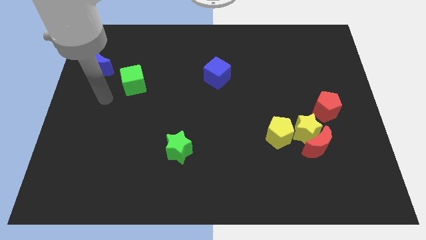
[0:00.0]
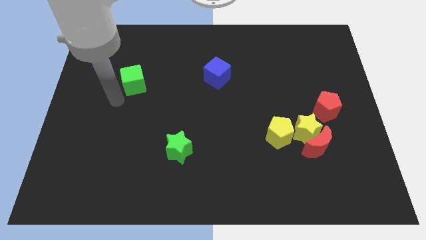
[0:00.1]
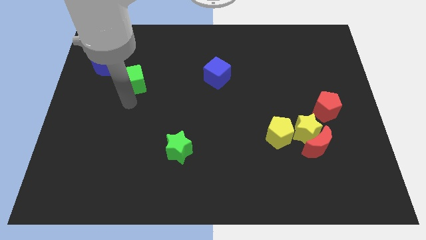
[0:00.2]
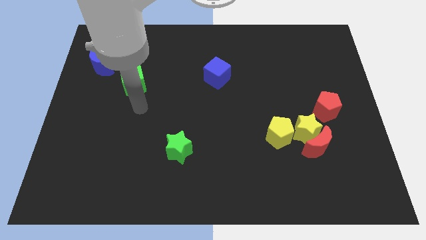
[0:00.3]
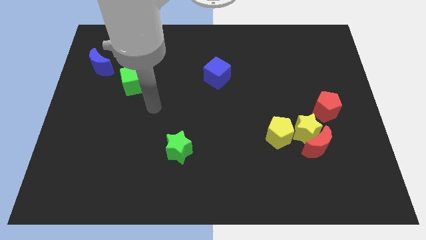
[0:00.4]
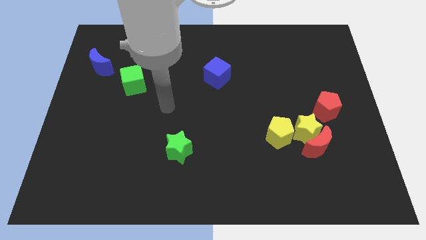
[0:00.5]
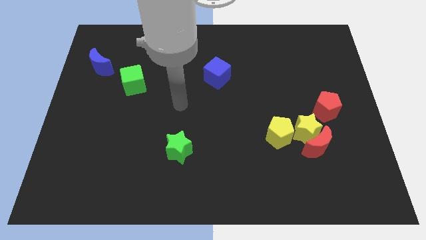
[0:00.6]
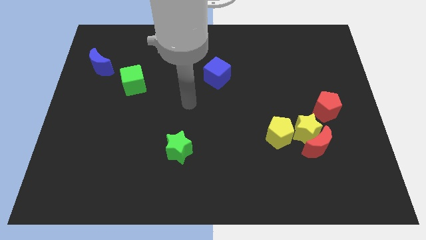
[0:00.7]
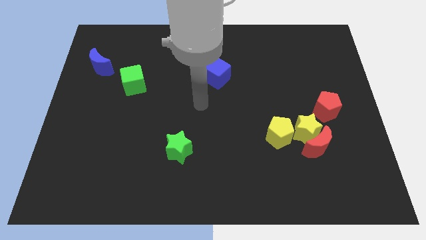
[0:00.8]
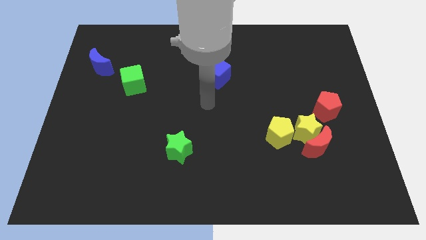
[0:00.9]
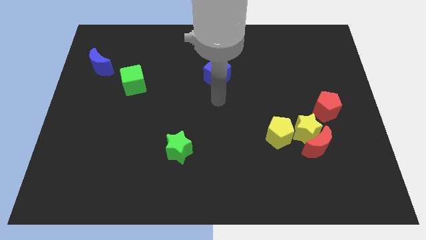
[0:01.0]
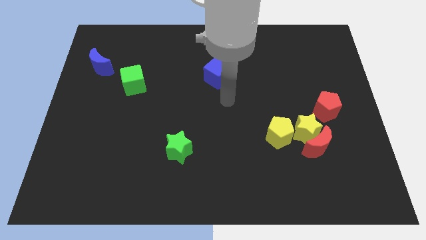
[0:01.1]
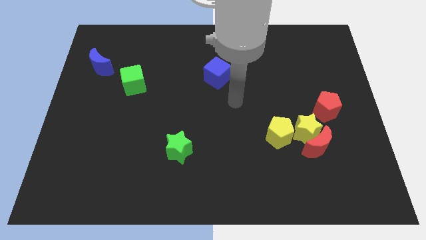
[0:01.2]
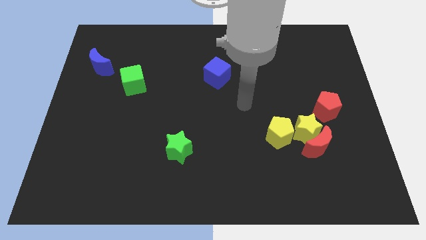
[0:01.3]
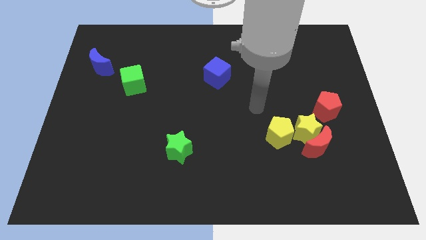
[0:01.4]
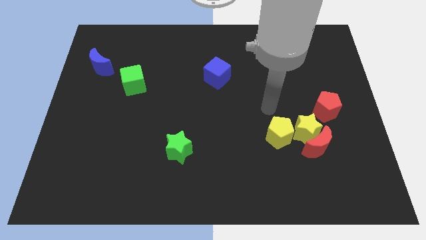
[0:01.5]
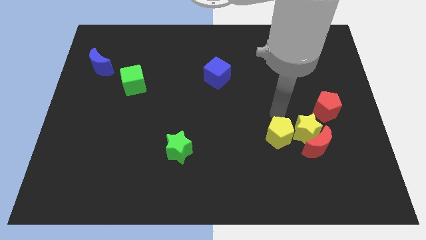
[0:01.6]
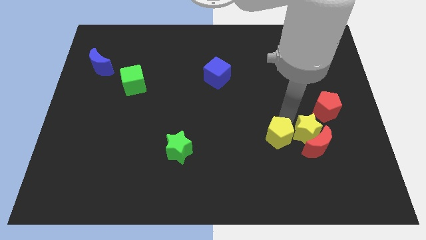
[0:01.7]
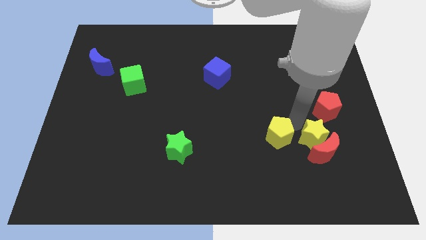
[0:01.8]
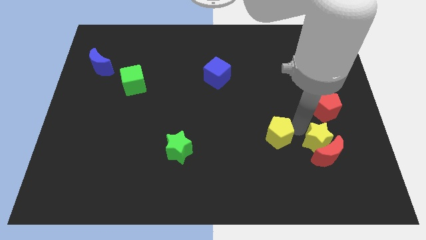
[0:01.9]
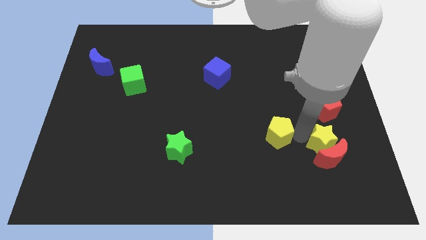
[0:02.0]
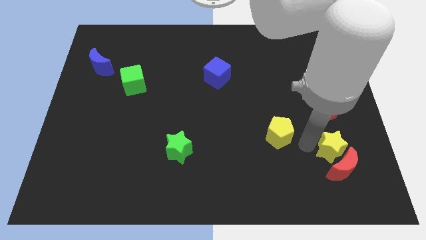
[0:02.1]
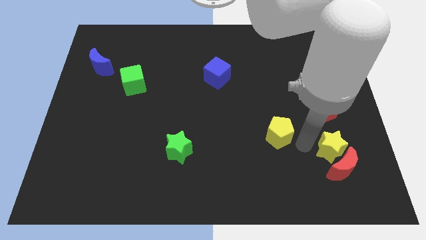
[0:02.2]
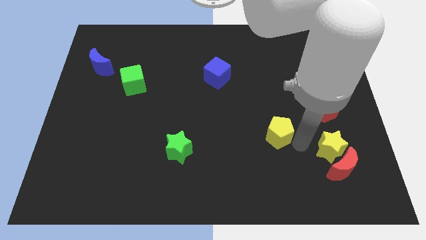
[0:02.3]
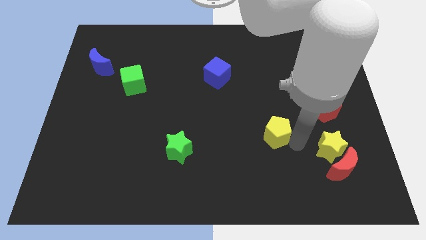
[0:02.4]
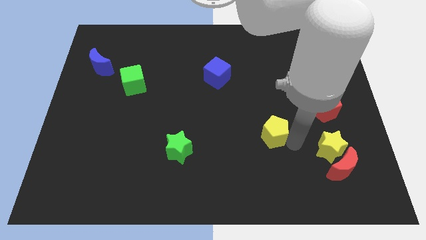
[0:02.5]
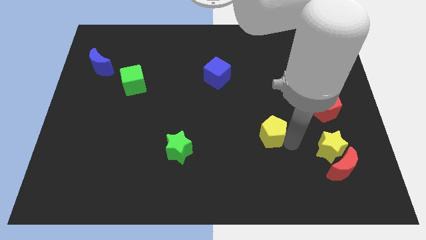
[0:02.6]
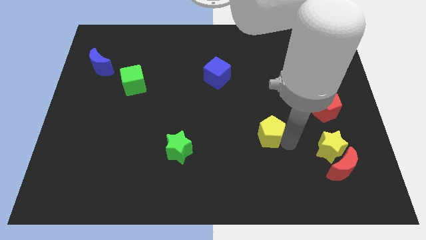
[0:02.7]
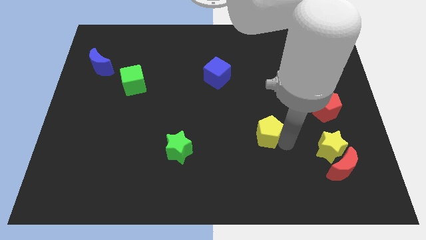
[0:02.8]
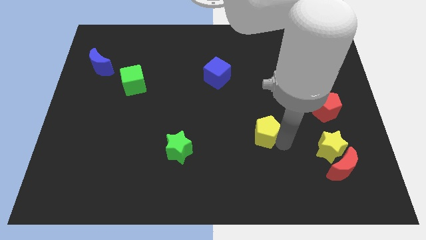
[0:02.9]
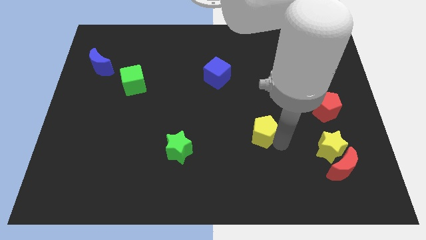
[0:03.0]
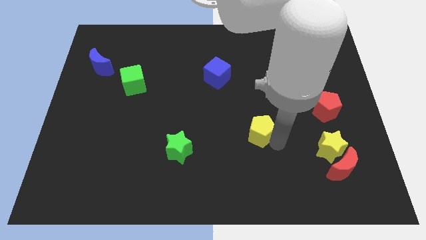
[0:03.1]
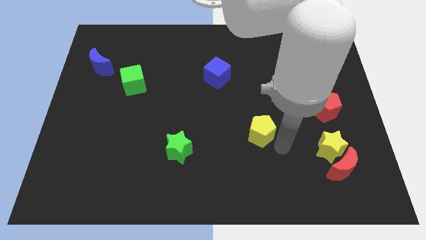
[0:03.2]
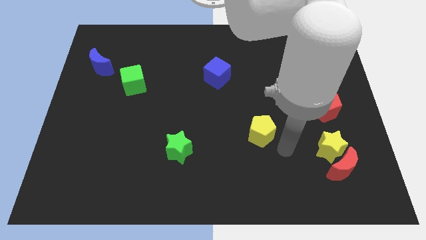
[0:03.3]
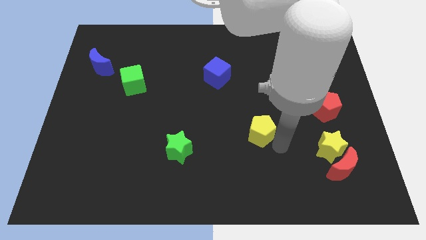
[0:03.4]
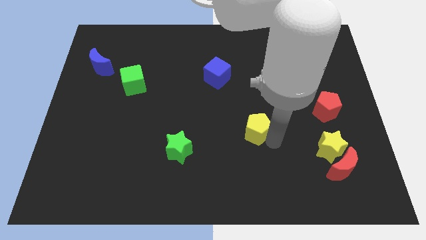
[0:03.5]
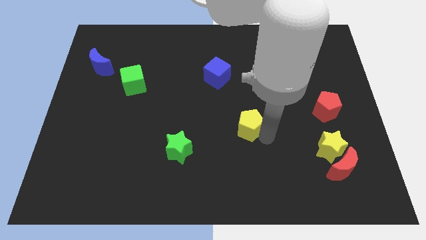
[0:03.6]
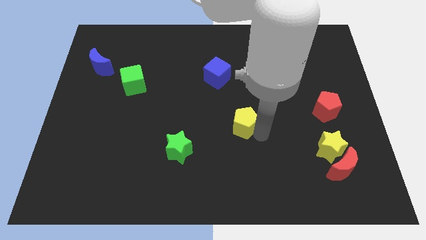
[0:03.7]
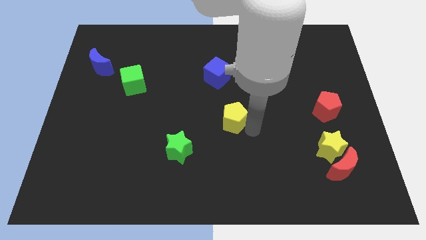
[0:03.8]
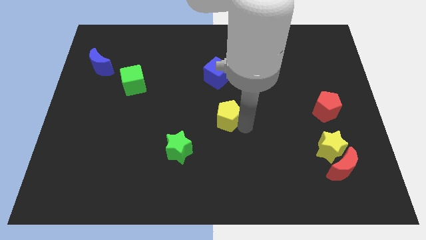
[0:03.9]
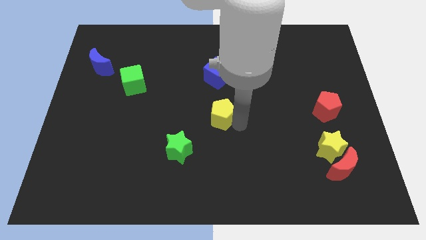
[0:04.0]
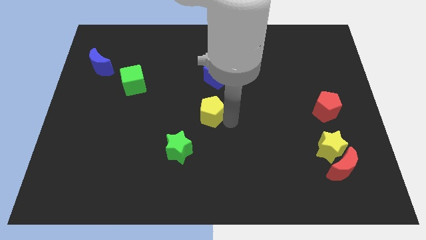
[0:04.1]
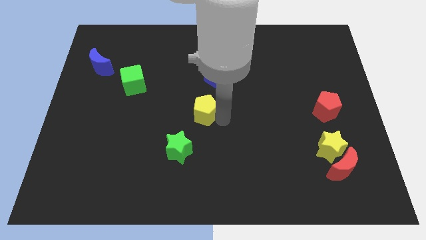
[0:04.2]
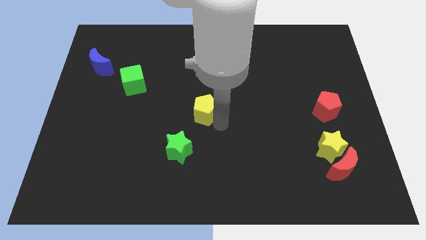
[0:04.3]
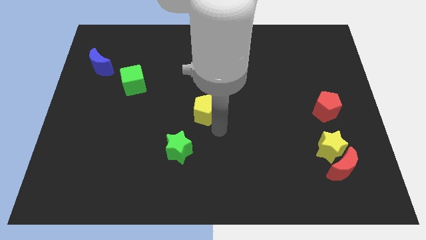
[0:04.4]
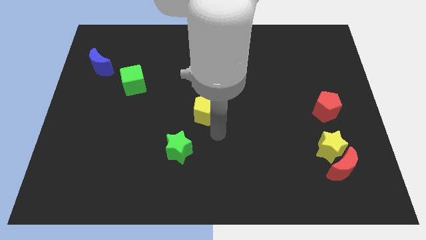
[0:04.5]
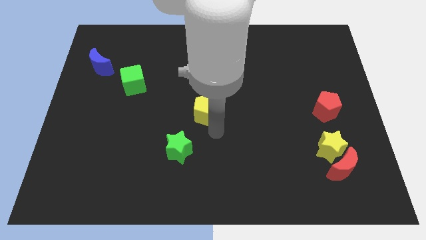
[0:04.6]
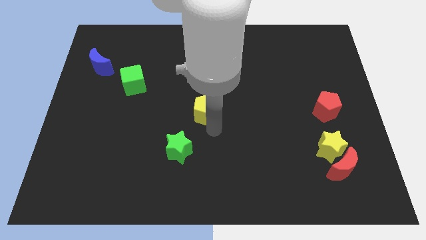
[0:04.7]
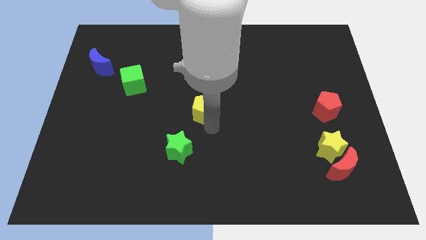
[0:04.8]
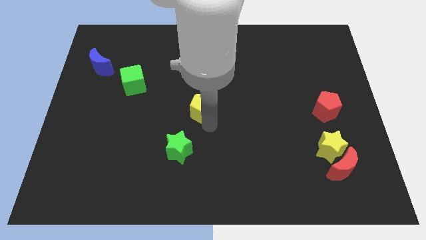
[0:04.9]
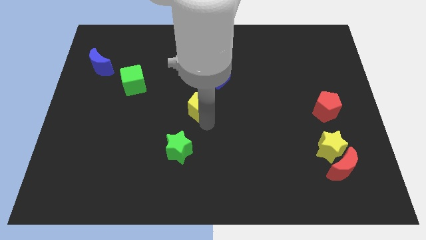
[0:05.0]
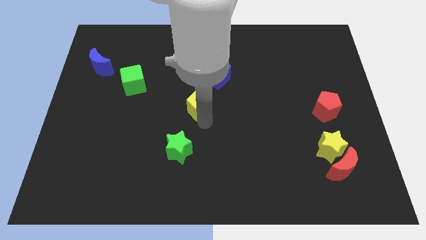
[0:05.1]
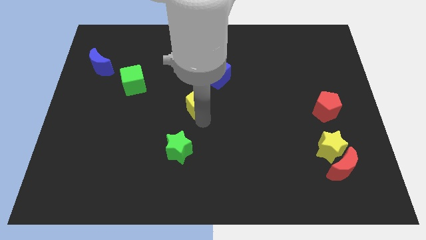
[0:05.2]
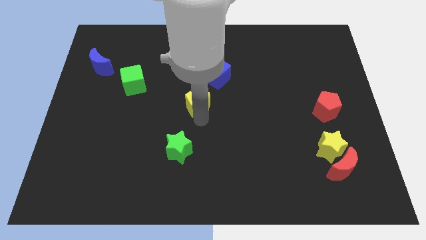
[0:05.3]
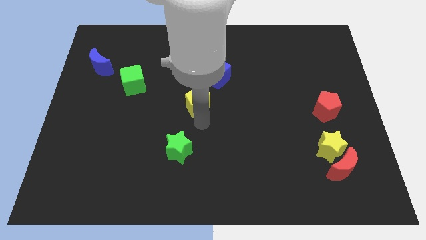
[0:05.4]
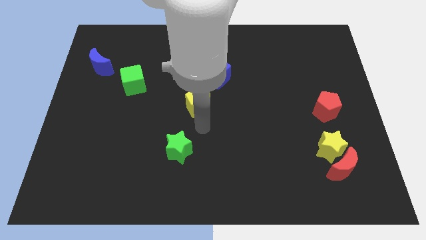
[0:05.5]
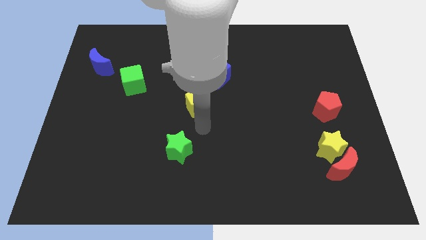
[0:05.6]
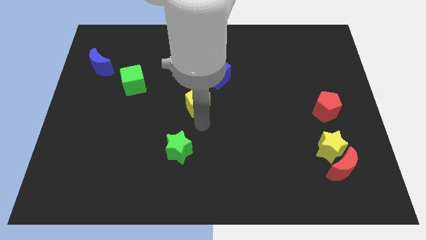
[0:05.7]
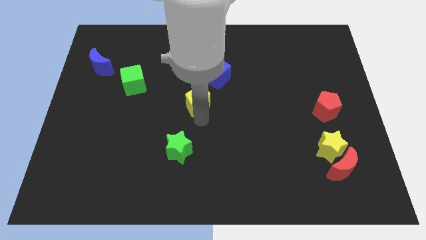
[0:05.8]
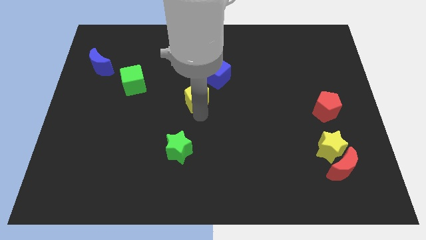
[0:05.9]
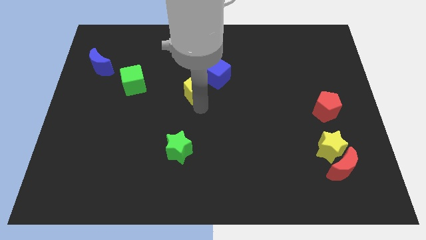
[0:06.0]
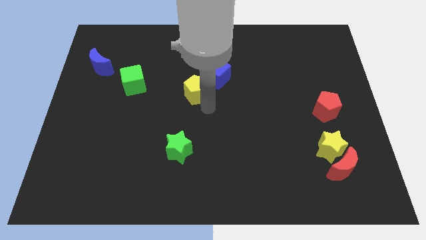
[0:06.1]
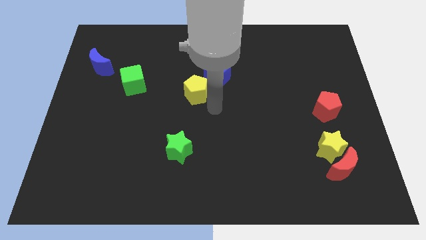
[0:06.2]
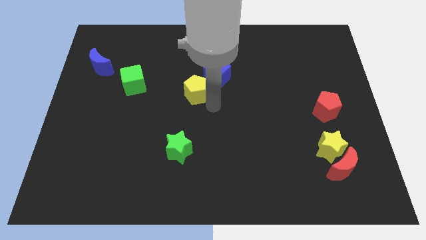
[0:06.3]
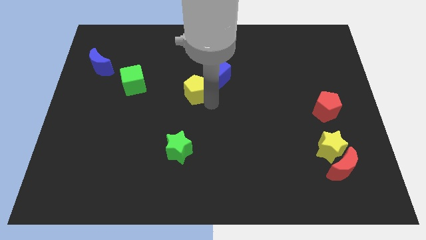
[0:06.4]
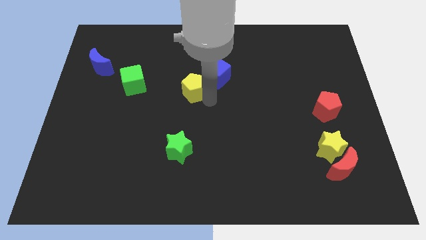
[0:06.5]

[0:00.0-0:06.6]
move the yellow pentagon to the left side of the blue cube

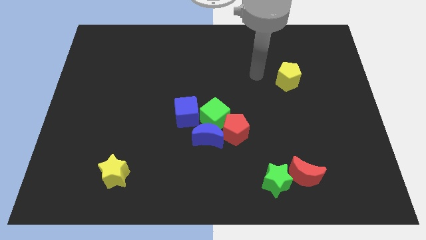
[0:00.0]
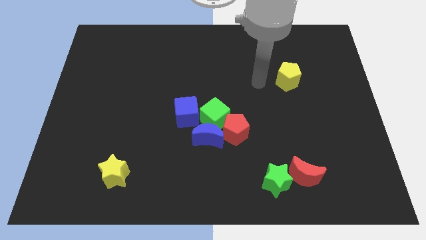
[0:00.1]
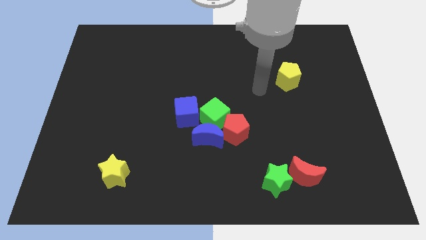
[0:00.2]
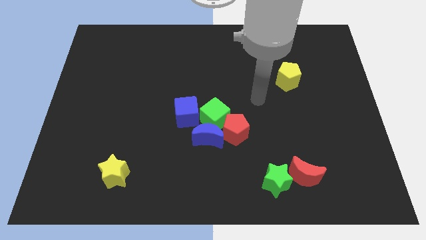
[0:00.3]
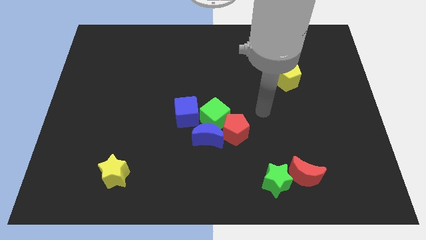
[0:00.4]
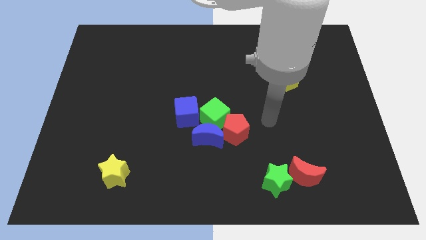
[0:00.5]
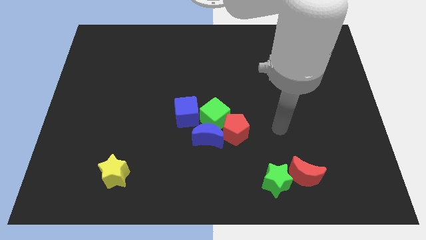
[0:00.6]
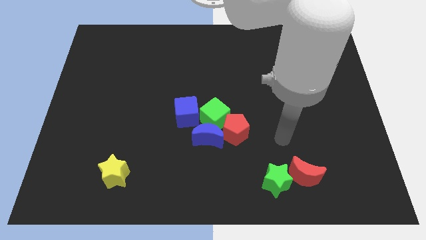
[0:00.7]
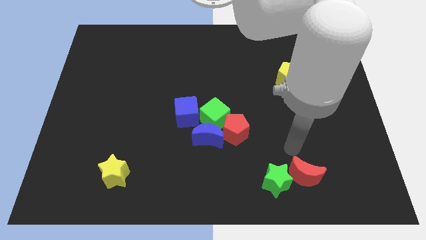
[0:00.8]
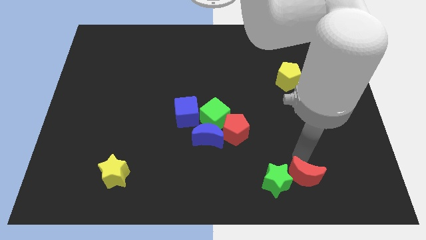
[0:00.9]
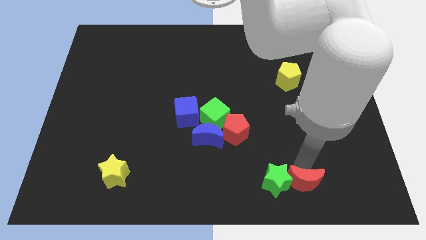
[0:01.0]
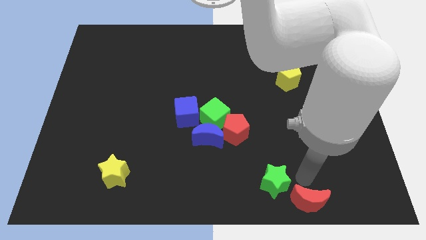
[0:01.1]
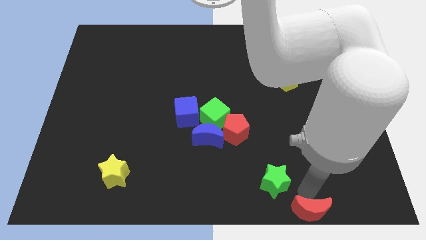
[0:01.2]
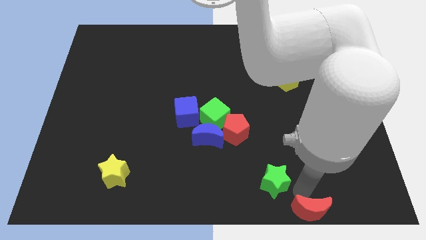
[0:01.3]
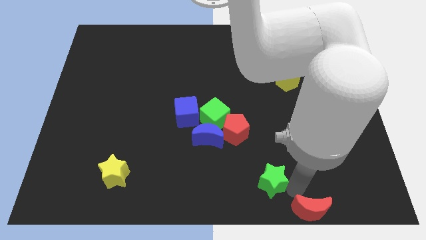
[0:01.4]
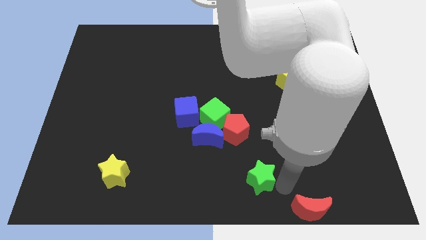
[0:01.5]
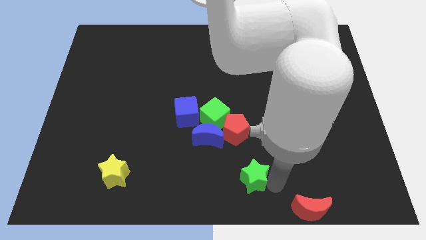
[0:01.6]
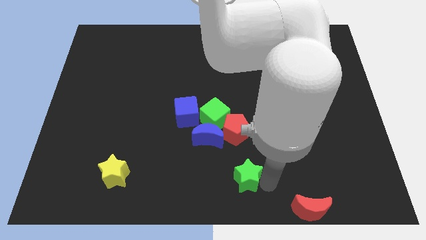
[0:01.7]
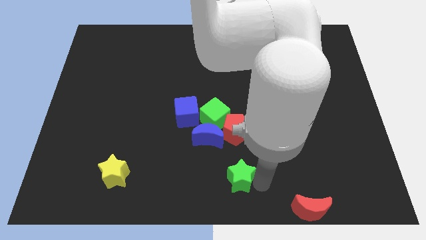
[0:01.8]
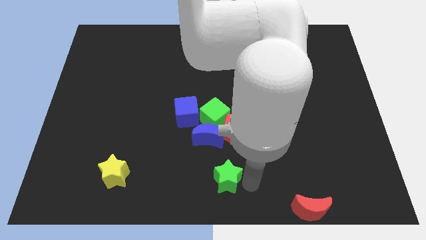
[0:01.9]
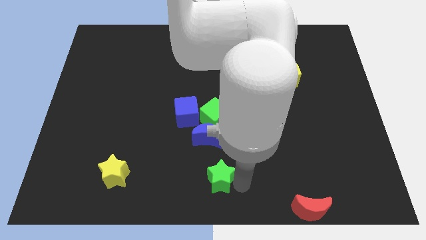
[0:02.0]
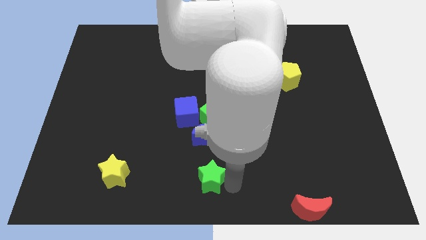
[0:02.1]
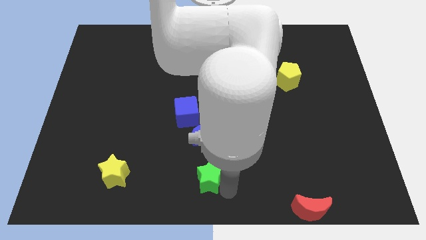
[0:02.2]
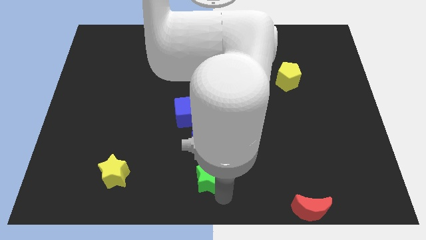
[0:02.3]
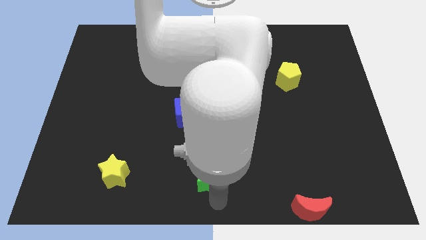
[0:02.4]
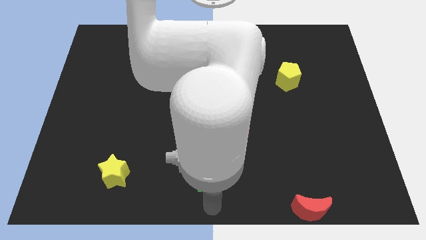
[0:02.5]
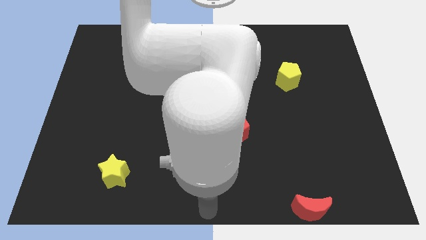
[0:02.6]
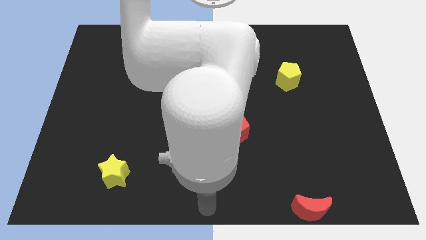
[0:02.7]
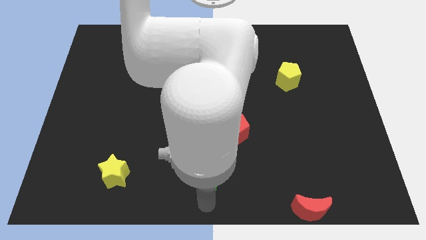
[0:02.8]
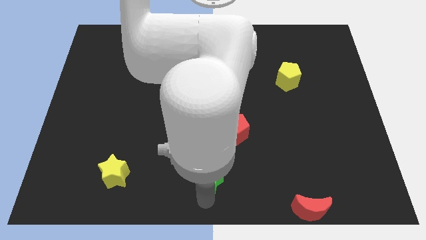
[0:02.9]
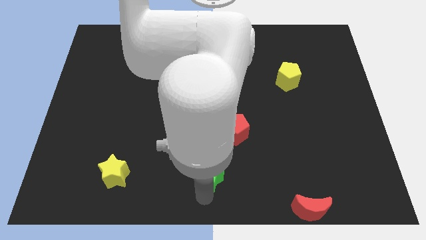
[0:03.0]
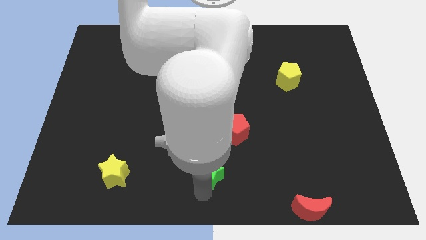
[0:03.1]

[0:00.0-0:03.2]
slide the green star to the bottom left of the red pentagon
